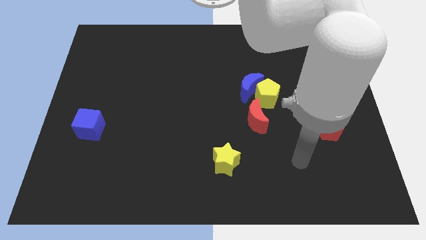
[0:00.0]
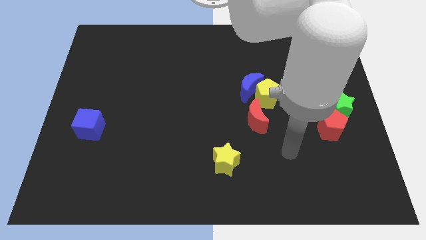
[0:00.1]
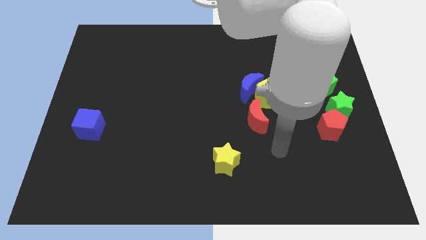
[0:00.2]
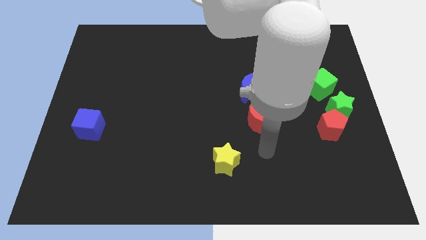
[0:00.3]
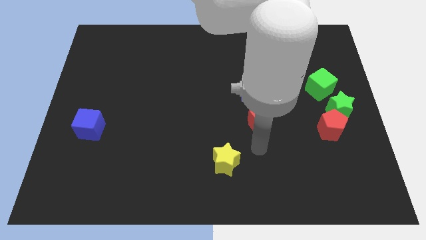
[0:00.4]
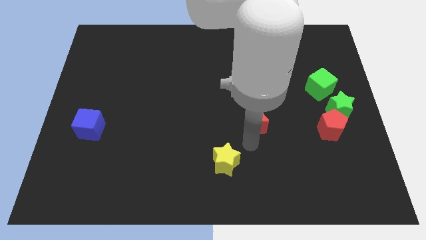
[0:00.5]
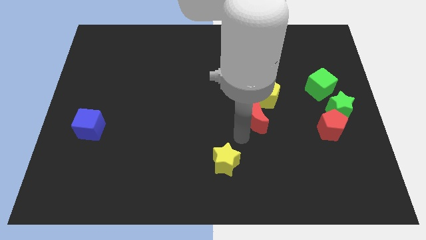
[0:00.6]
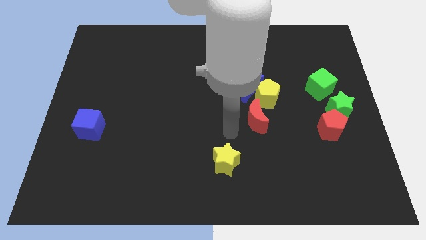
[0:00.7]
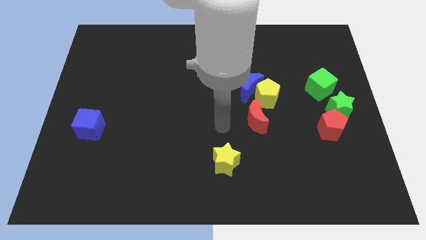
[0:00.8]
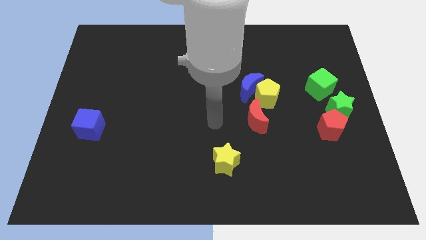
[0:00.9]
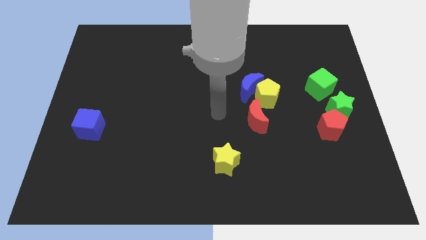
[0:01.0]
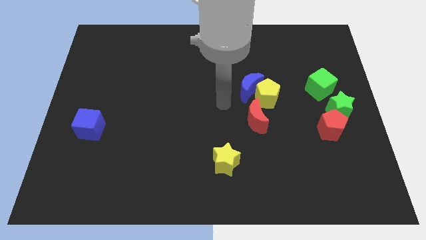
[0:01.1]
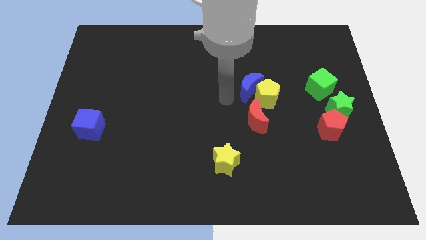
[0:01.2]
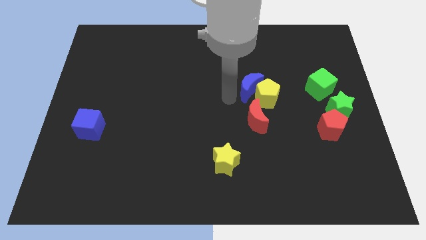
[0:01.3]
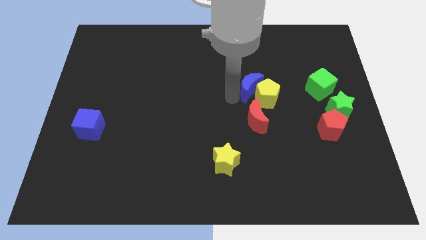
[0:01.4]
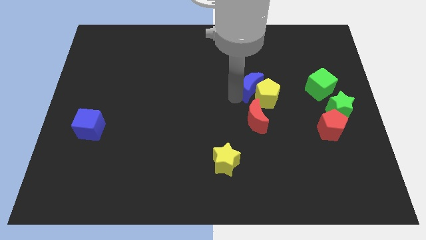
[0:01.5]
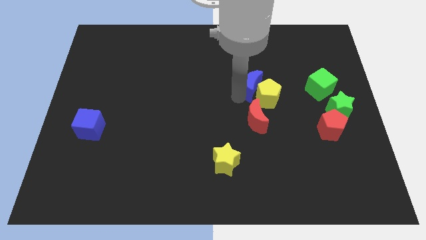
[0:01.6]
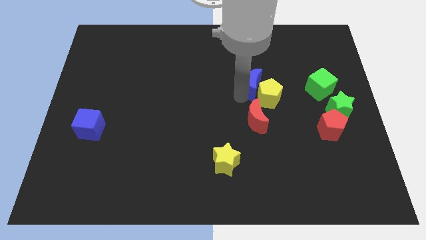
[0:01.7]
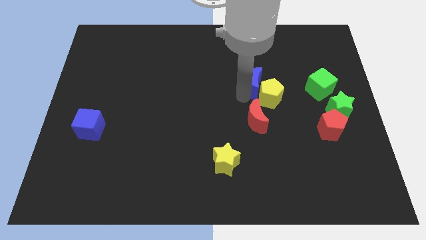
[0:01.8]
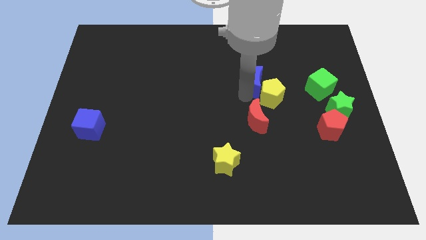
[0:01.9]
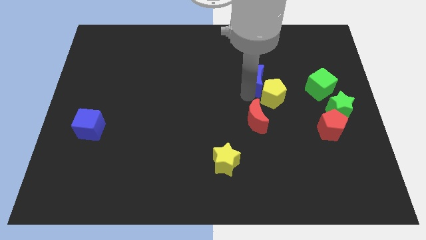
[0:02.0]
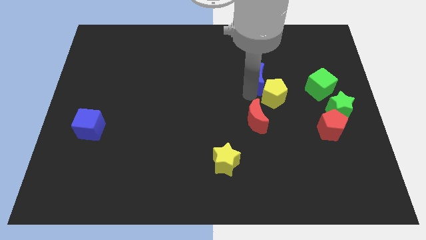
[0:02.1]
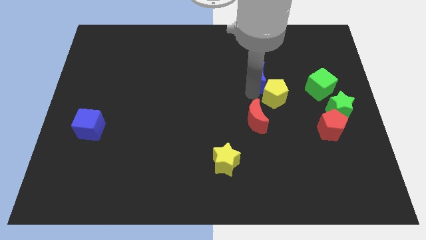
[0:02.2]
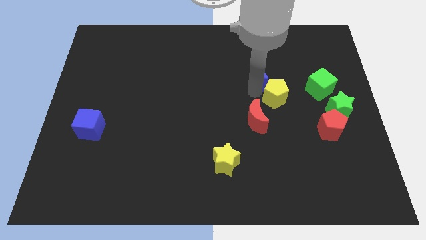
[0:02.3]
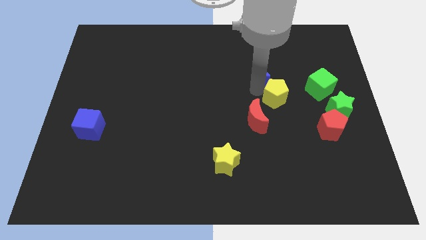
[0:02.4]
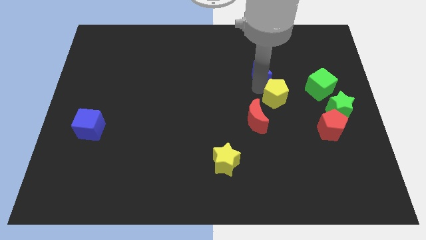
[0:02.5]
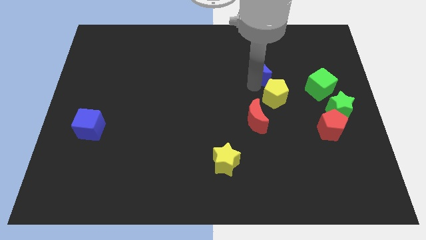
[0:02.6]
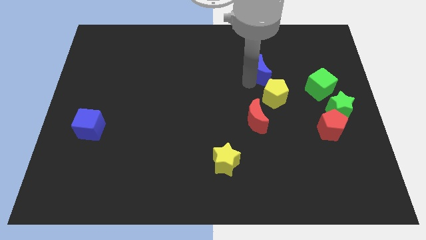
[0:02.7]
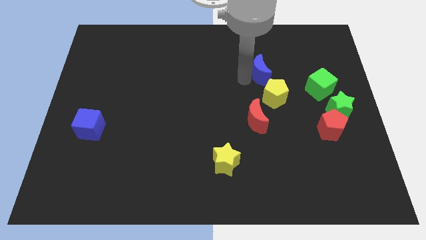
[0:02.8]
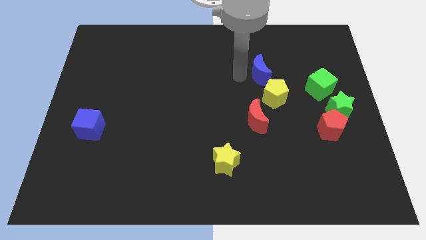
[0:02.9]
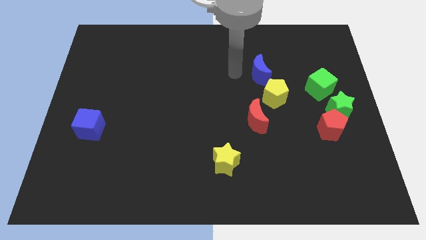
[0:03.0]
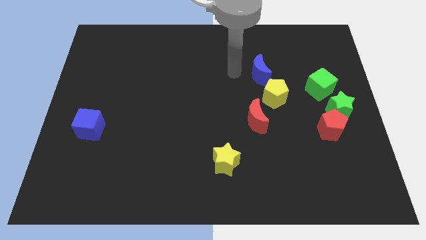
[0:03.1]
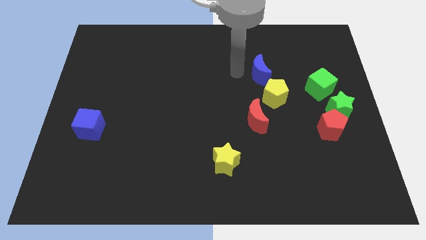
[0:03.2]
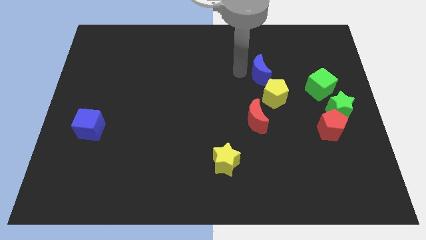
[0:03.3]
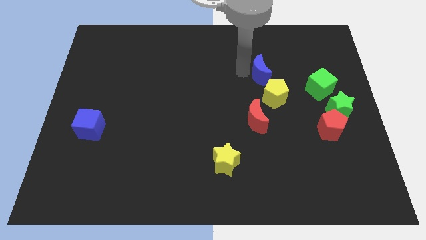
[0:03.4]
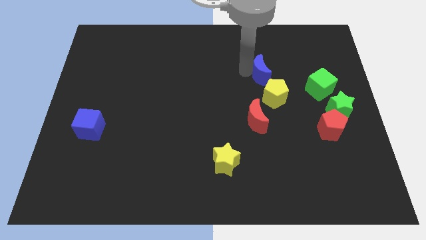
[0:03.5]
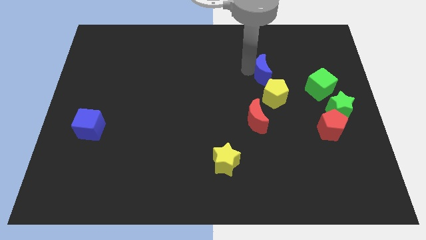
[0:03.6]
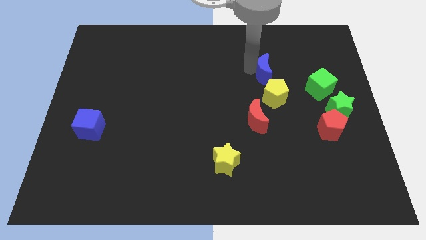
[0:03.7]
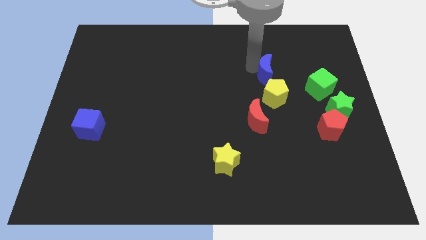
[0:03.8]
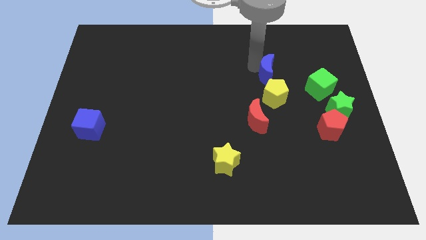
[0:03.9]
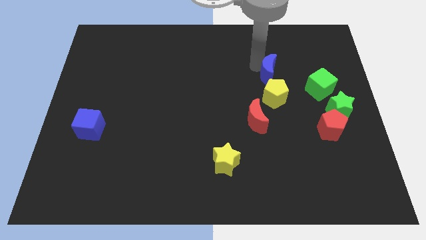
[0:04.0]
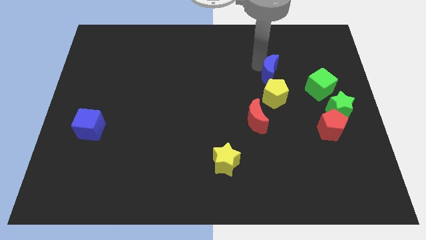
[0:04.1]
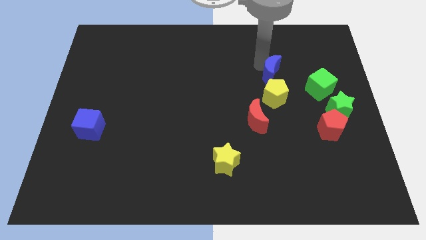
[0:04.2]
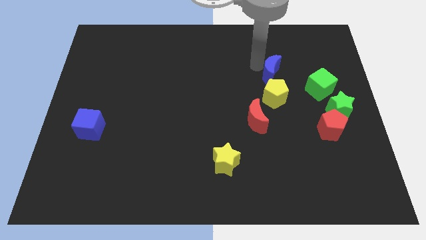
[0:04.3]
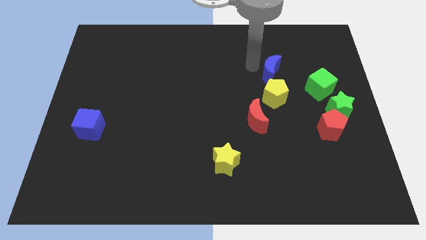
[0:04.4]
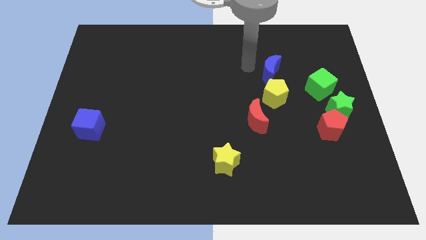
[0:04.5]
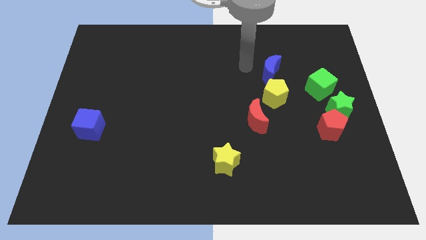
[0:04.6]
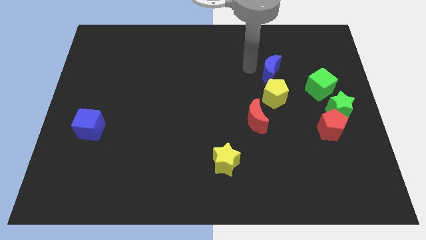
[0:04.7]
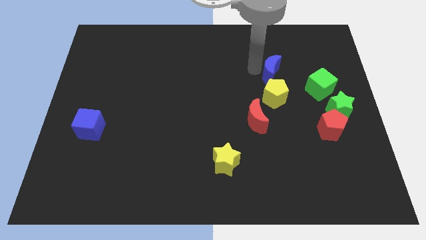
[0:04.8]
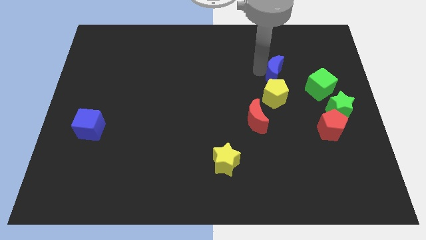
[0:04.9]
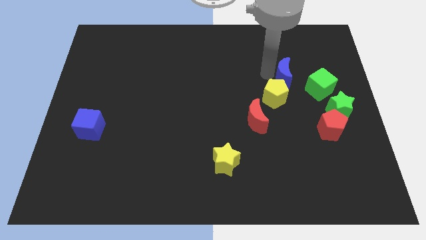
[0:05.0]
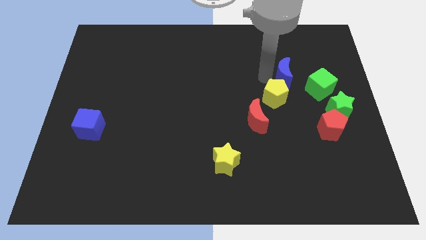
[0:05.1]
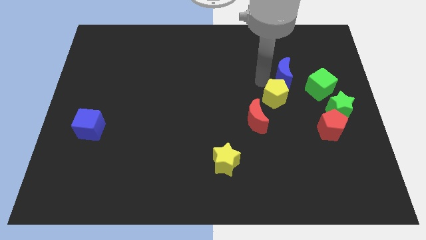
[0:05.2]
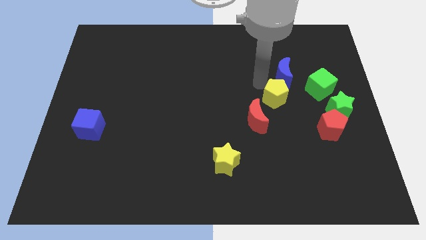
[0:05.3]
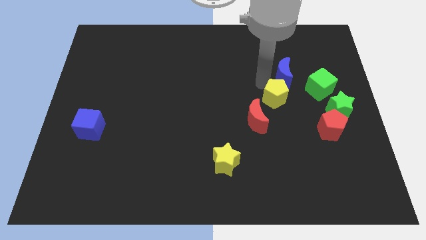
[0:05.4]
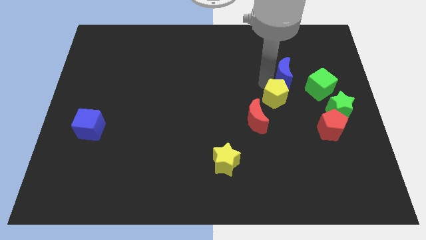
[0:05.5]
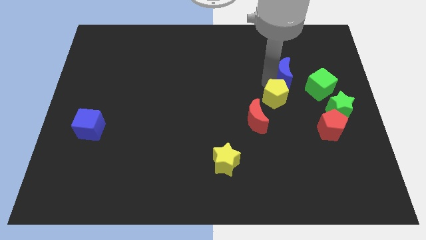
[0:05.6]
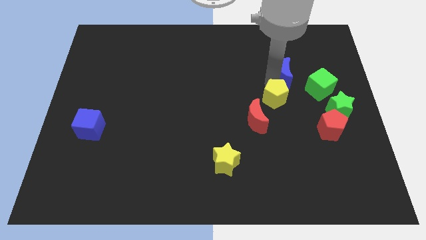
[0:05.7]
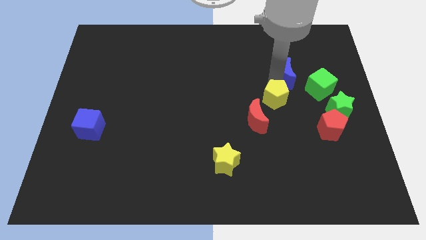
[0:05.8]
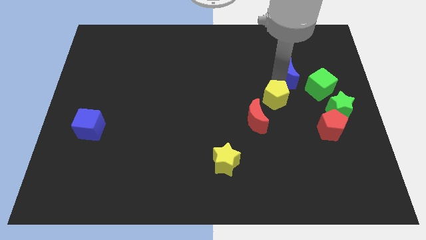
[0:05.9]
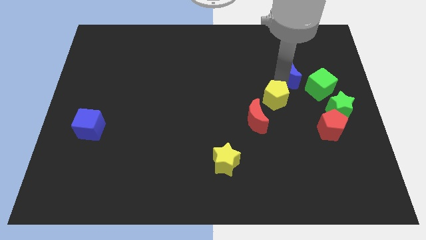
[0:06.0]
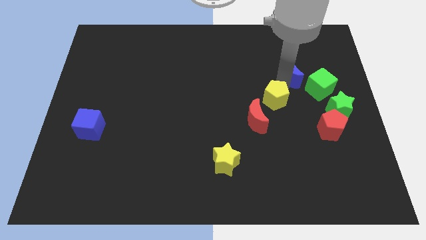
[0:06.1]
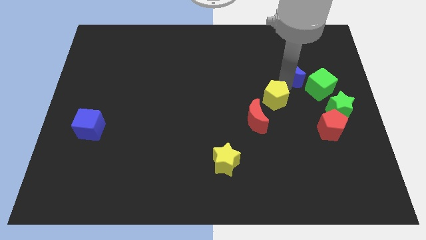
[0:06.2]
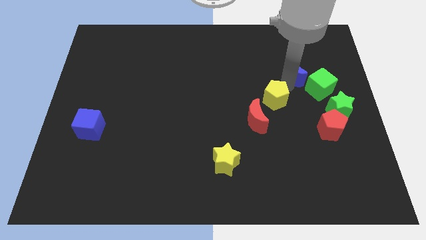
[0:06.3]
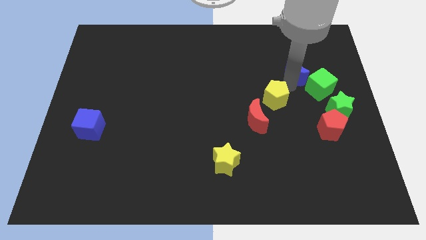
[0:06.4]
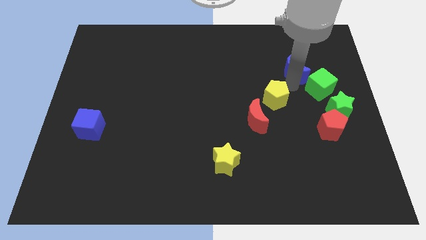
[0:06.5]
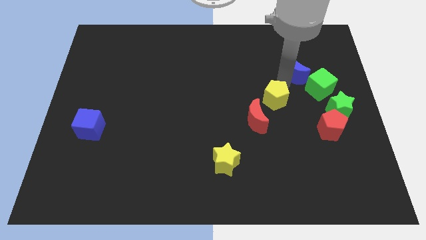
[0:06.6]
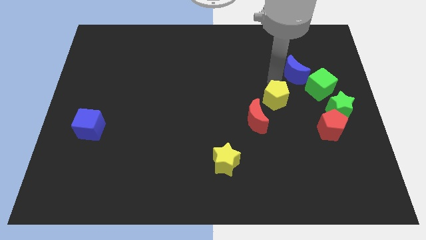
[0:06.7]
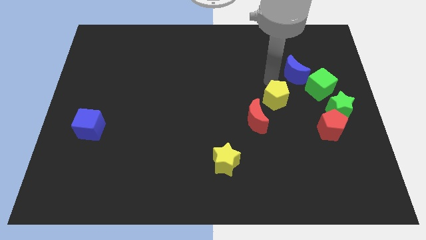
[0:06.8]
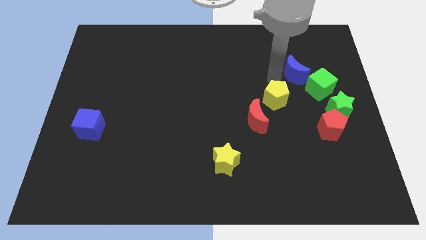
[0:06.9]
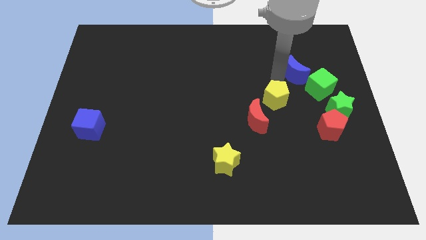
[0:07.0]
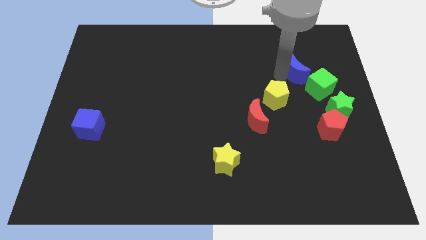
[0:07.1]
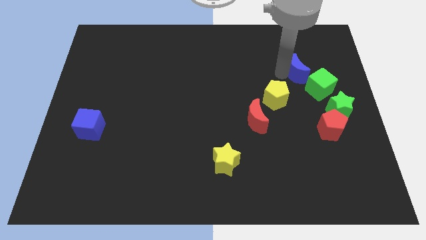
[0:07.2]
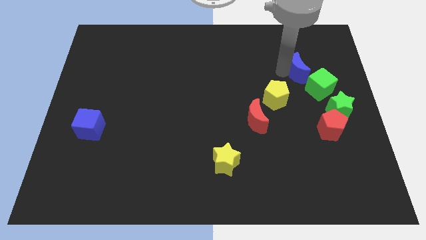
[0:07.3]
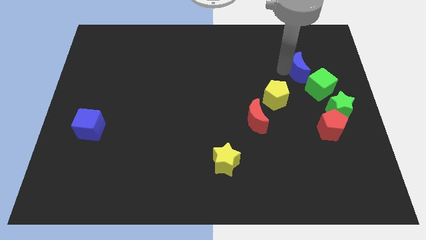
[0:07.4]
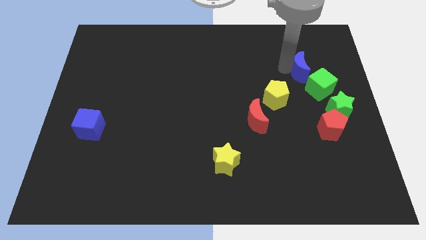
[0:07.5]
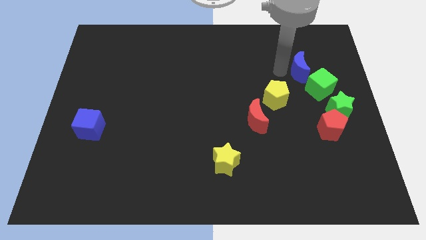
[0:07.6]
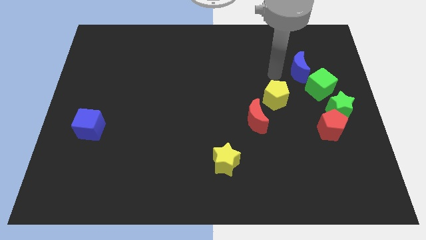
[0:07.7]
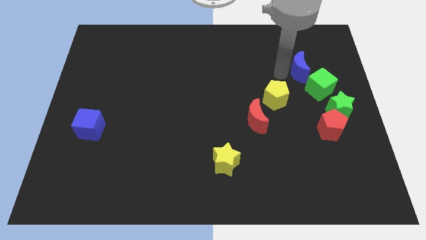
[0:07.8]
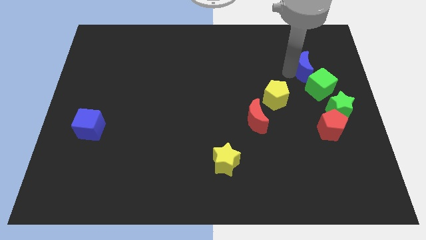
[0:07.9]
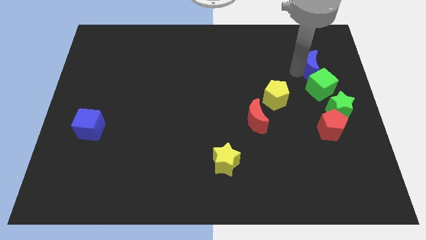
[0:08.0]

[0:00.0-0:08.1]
push the blue moon to the top of the green star
